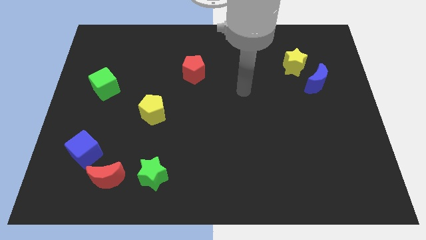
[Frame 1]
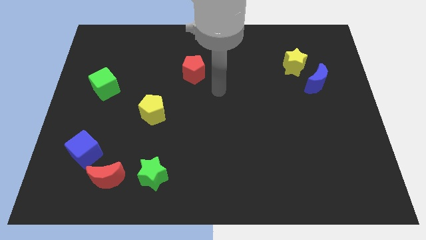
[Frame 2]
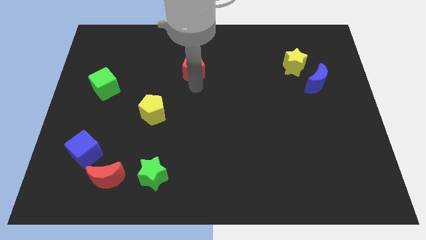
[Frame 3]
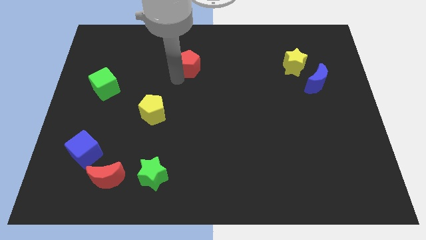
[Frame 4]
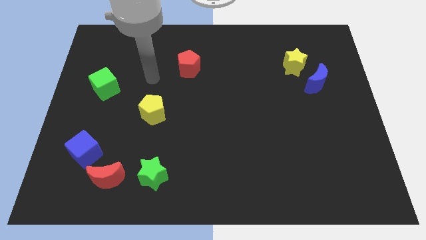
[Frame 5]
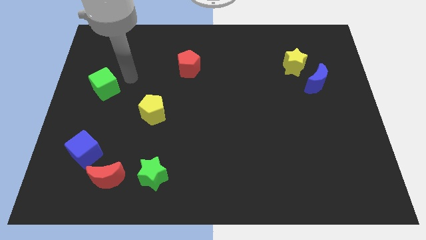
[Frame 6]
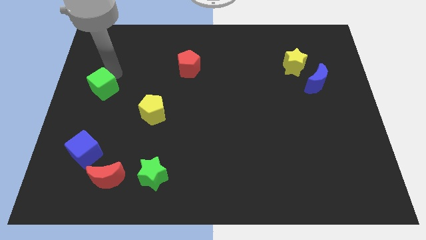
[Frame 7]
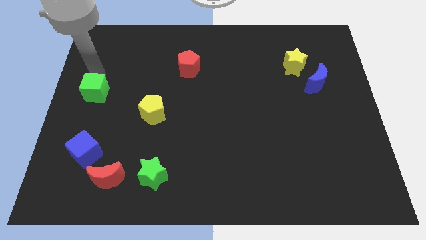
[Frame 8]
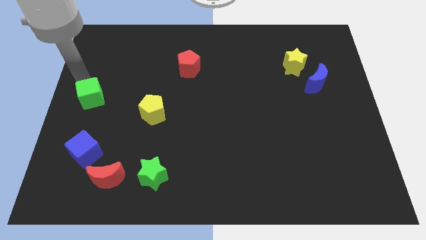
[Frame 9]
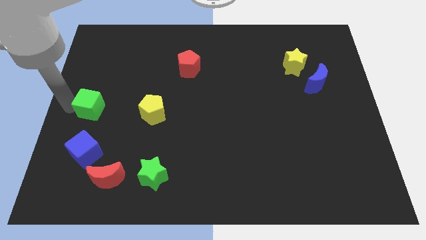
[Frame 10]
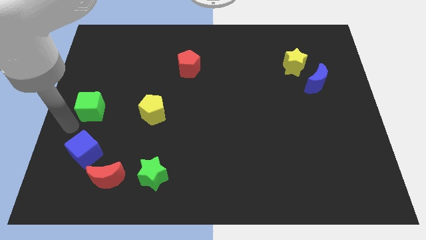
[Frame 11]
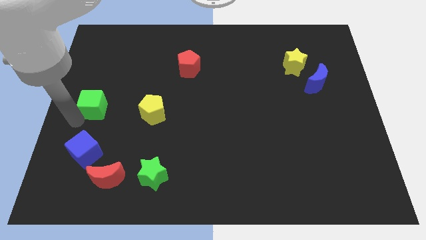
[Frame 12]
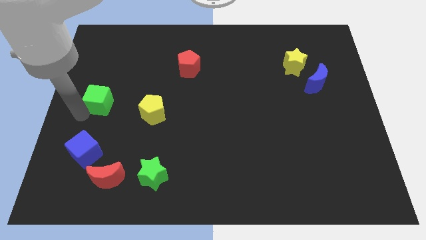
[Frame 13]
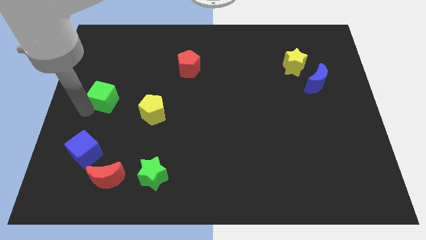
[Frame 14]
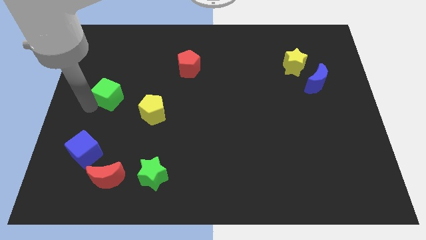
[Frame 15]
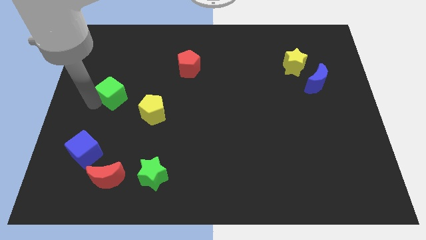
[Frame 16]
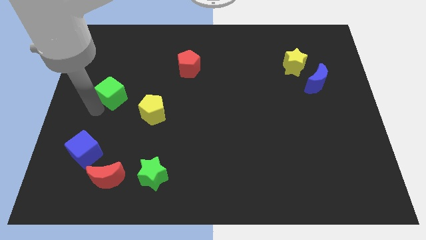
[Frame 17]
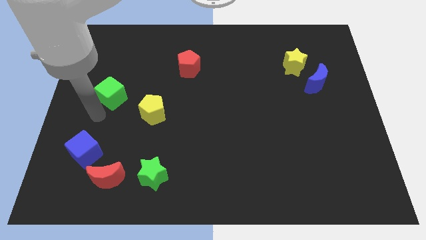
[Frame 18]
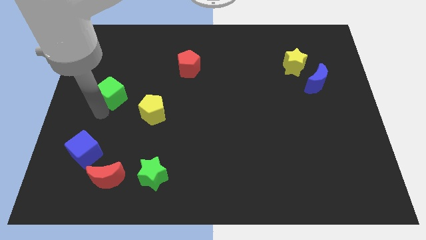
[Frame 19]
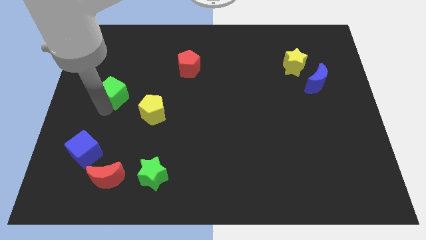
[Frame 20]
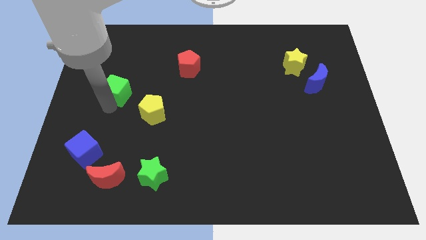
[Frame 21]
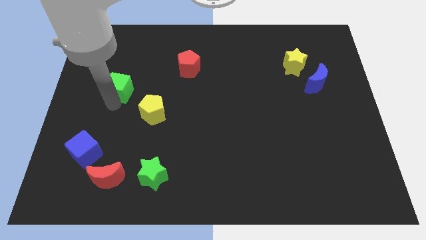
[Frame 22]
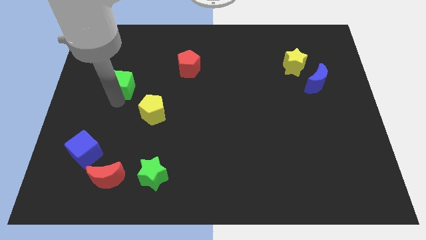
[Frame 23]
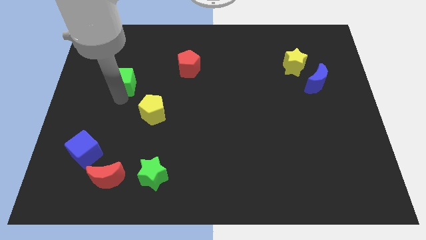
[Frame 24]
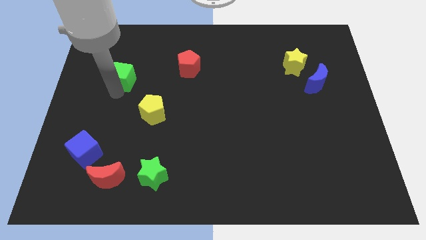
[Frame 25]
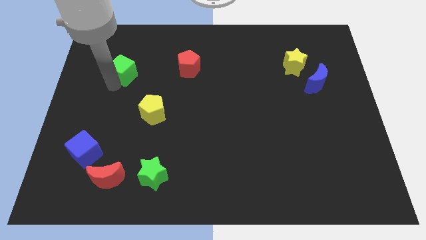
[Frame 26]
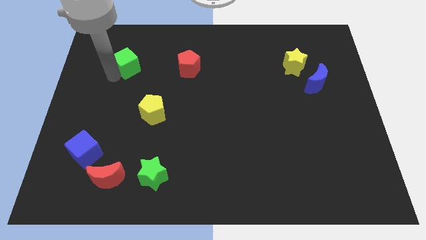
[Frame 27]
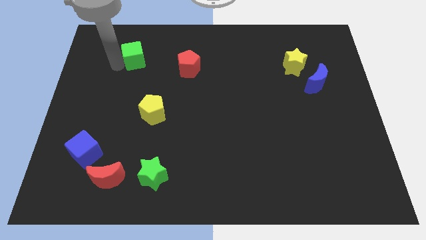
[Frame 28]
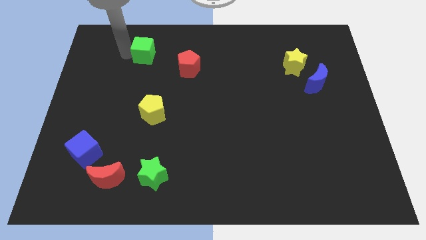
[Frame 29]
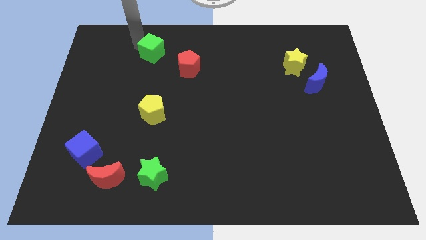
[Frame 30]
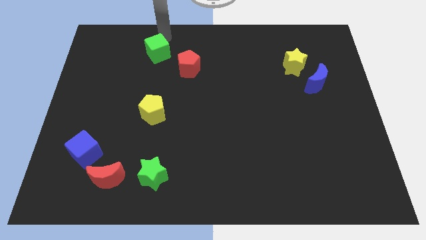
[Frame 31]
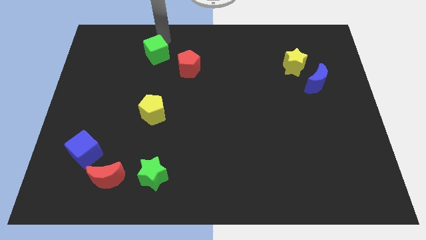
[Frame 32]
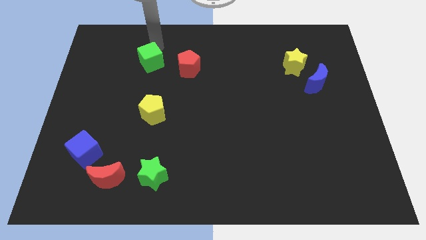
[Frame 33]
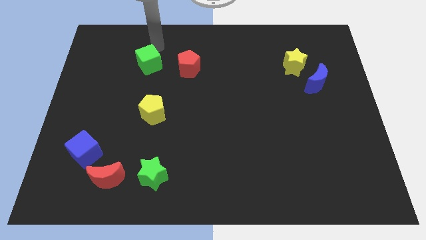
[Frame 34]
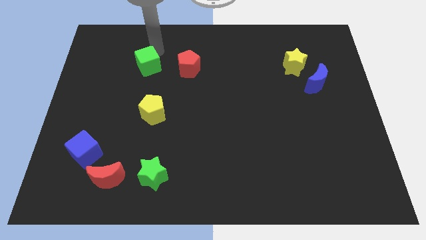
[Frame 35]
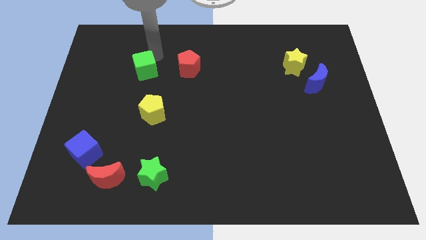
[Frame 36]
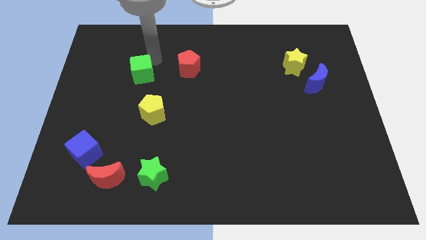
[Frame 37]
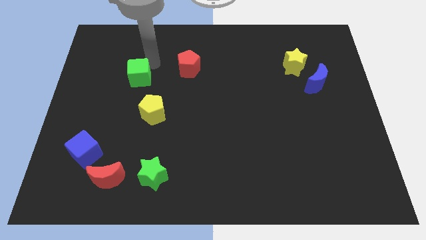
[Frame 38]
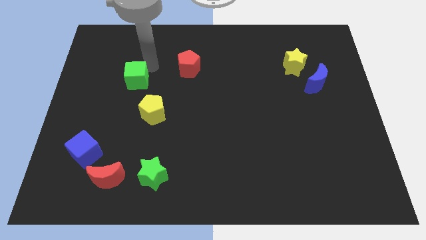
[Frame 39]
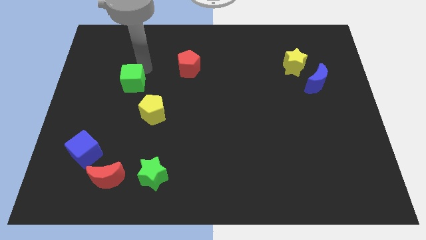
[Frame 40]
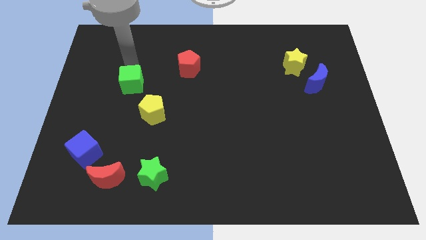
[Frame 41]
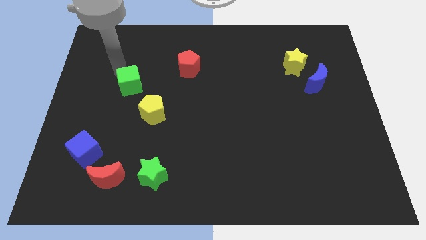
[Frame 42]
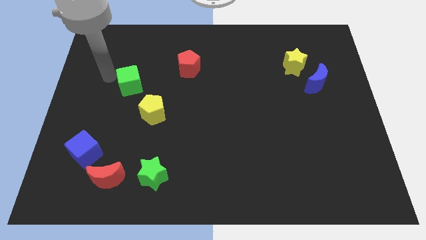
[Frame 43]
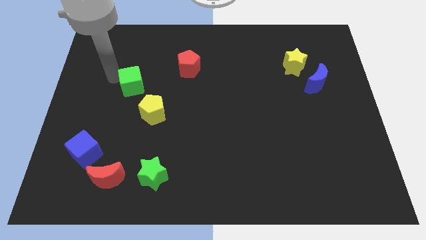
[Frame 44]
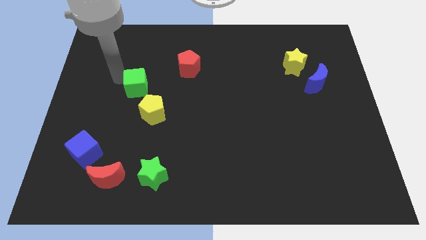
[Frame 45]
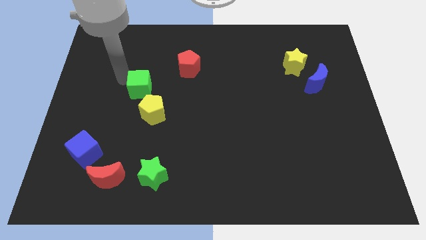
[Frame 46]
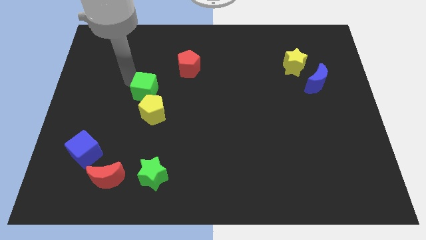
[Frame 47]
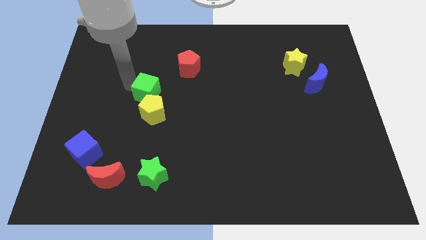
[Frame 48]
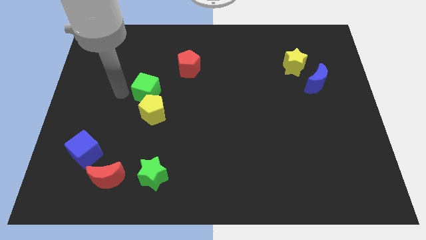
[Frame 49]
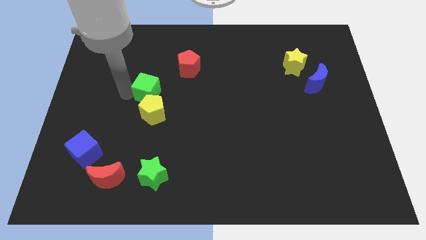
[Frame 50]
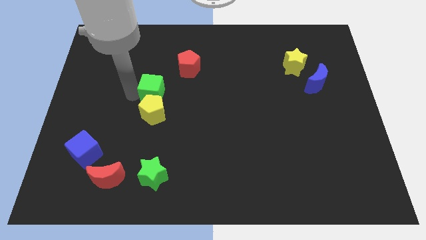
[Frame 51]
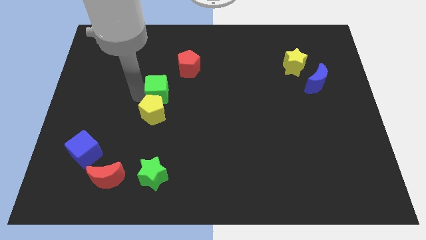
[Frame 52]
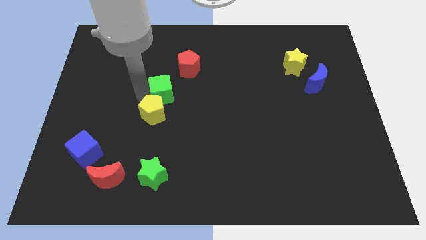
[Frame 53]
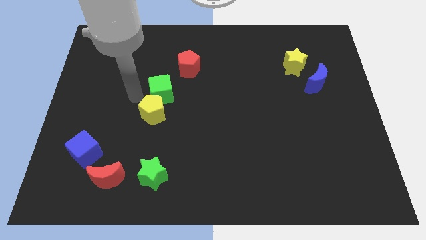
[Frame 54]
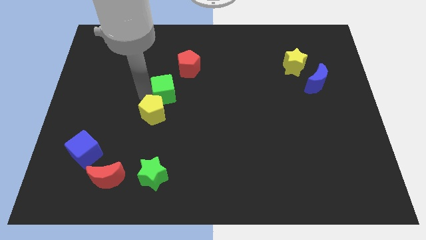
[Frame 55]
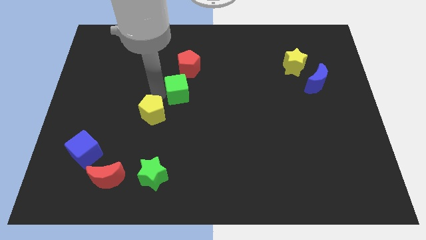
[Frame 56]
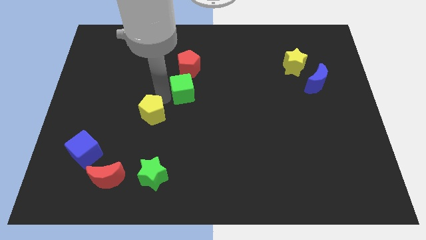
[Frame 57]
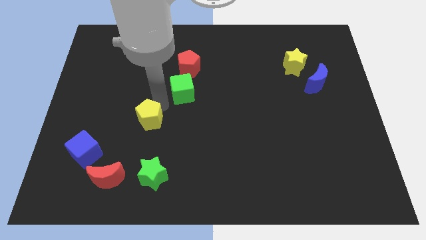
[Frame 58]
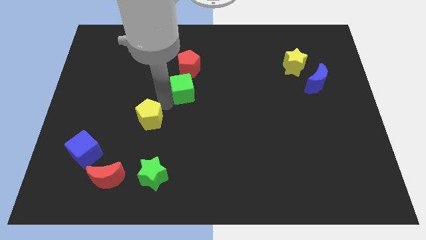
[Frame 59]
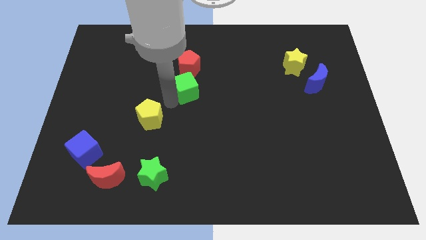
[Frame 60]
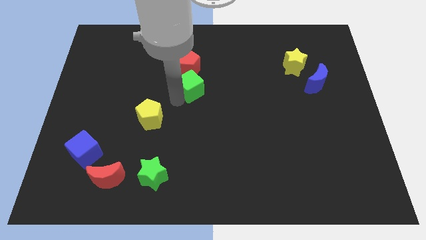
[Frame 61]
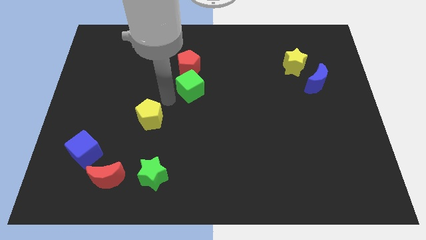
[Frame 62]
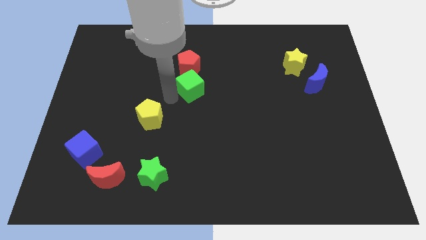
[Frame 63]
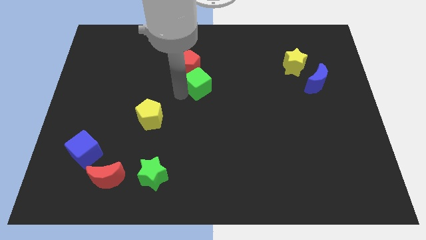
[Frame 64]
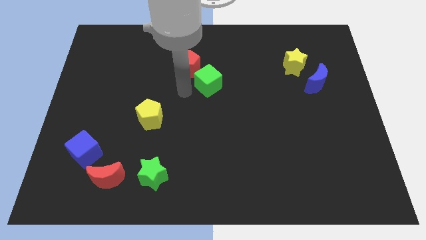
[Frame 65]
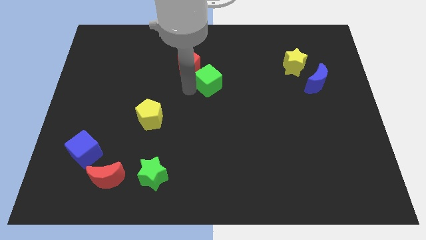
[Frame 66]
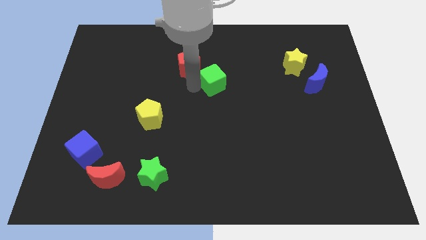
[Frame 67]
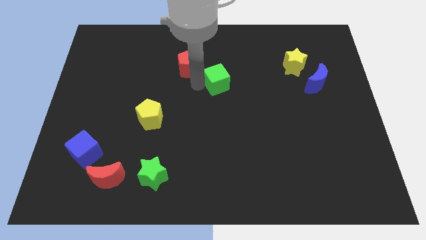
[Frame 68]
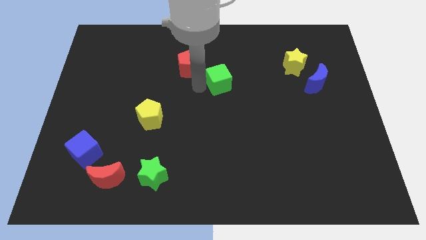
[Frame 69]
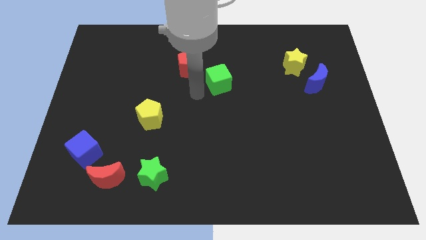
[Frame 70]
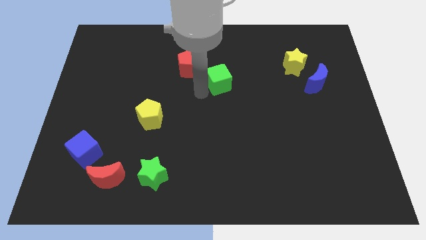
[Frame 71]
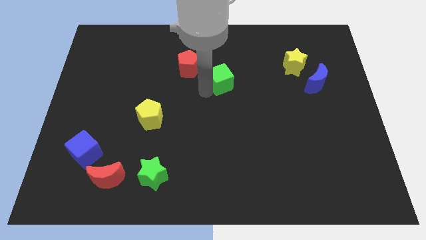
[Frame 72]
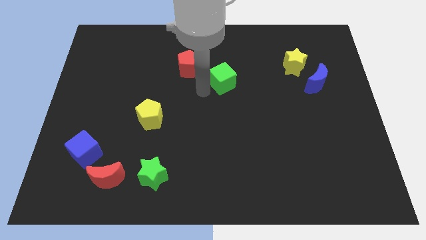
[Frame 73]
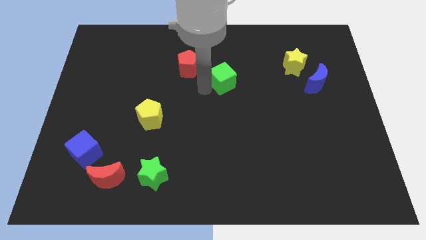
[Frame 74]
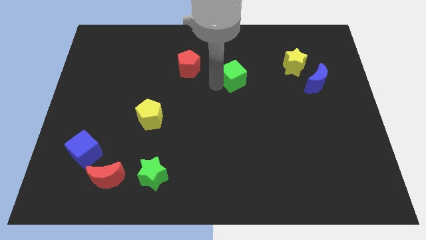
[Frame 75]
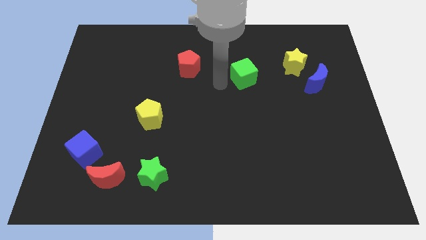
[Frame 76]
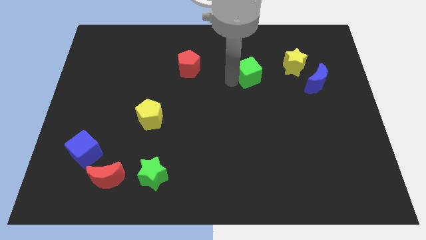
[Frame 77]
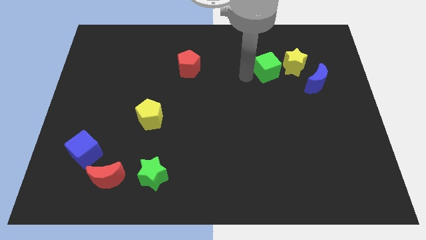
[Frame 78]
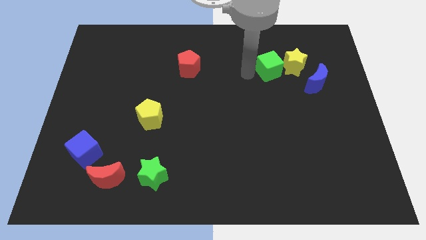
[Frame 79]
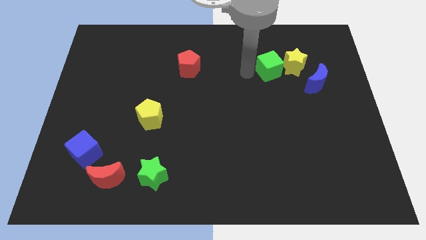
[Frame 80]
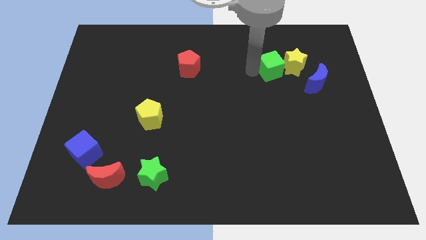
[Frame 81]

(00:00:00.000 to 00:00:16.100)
slide the green cube towards the yellow star

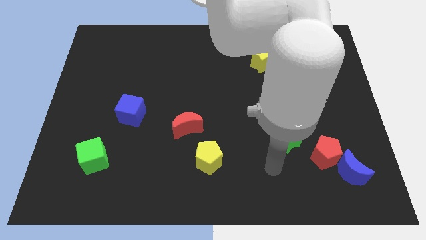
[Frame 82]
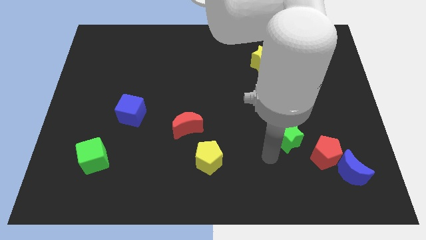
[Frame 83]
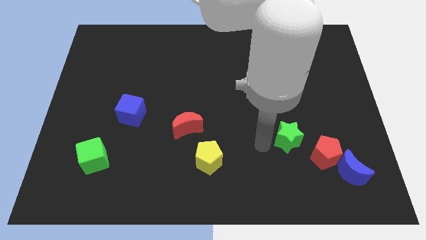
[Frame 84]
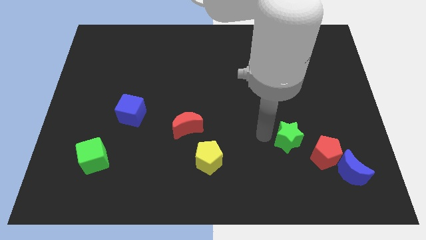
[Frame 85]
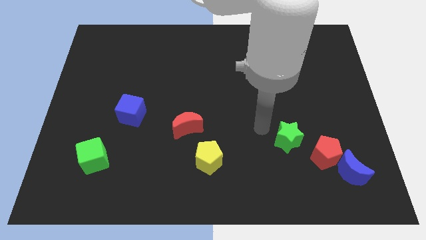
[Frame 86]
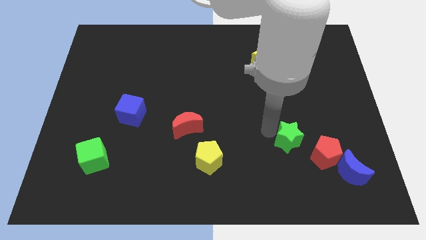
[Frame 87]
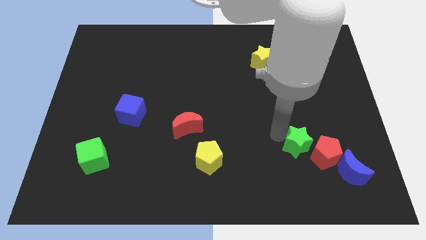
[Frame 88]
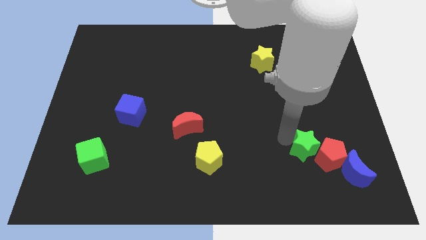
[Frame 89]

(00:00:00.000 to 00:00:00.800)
slide the green star next to the red pentagon
